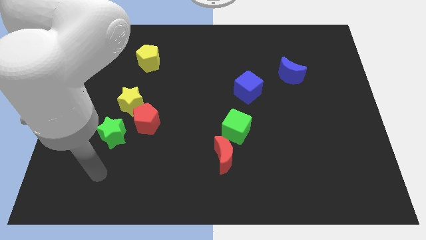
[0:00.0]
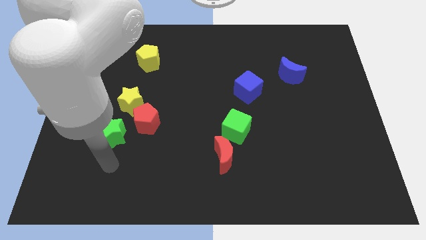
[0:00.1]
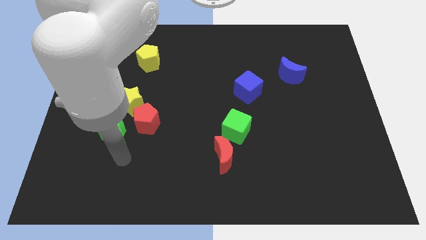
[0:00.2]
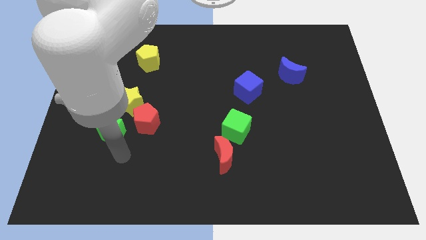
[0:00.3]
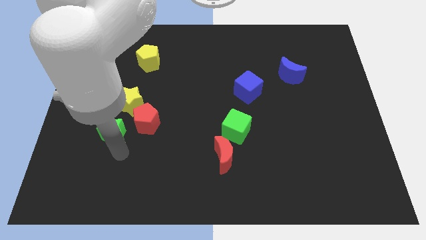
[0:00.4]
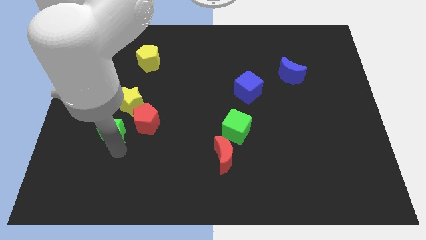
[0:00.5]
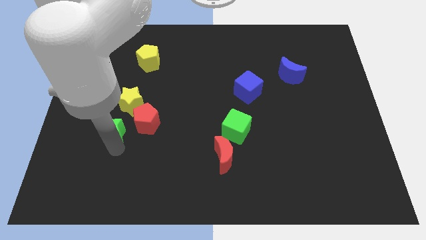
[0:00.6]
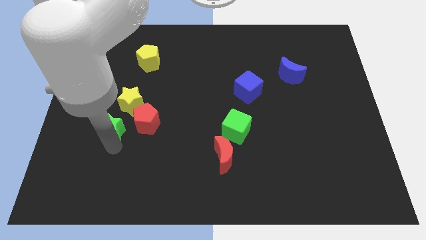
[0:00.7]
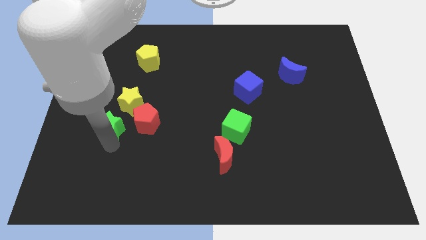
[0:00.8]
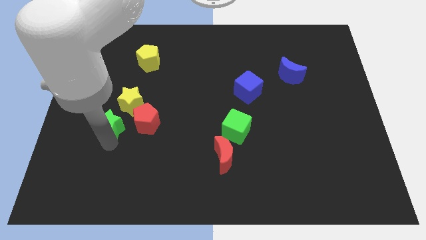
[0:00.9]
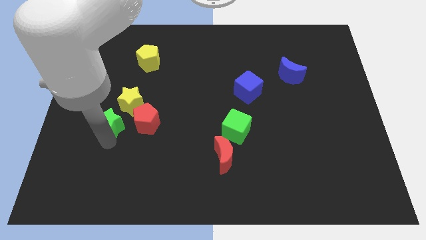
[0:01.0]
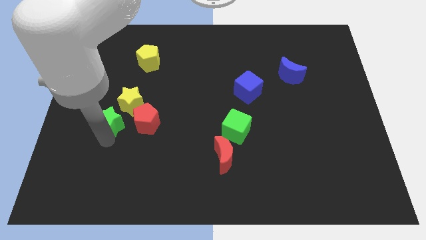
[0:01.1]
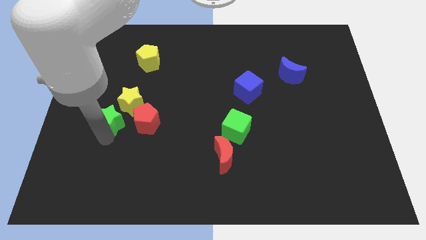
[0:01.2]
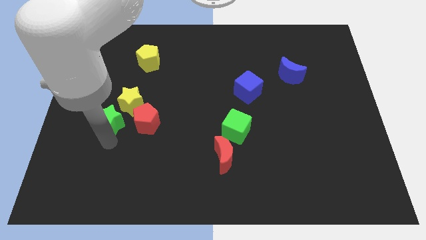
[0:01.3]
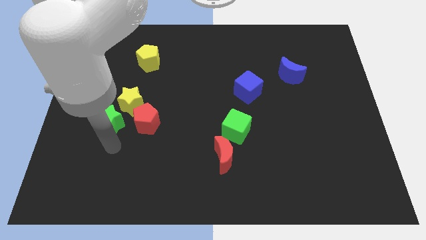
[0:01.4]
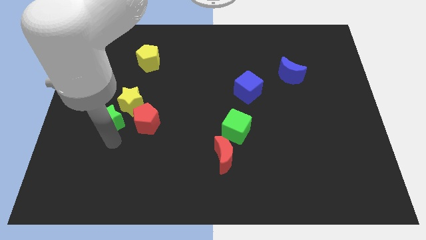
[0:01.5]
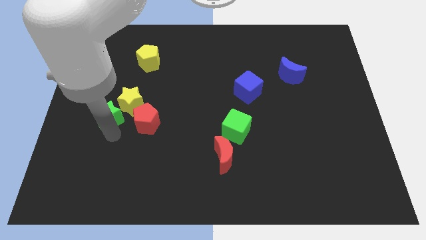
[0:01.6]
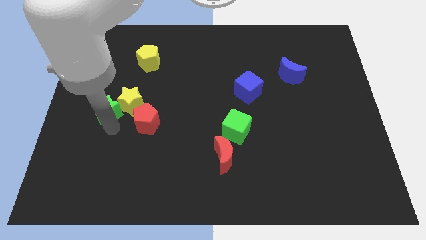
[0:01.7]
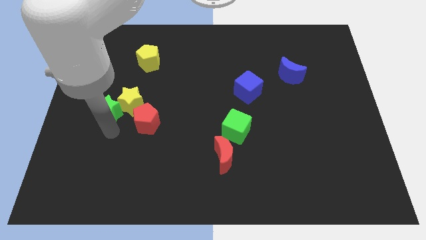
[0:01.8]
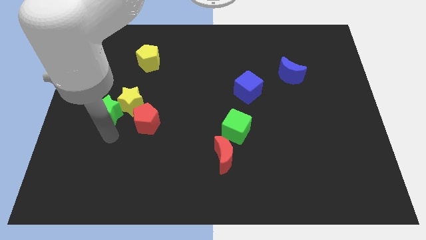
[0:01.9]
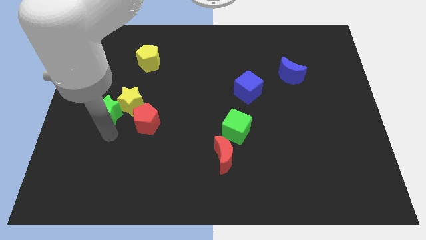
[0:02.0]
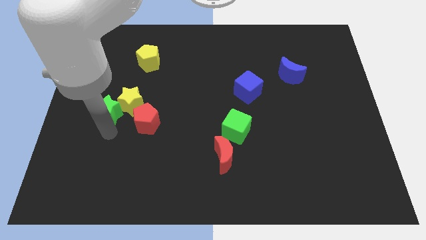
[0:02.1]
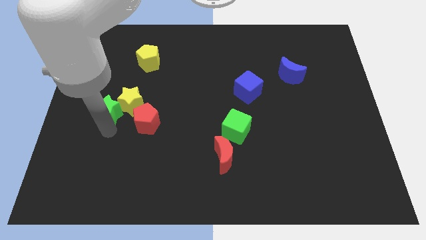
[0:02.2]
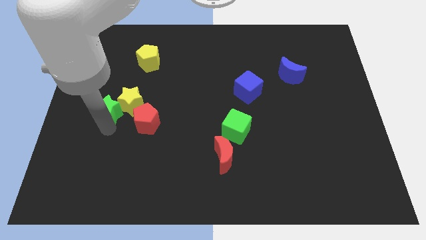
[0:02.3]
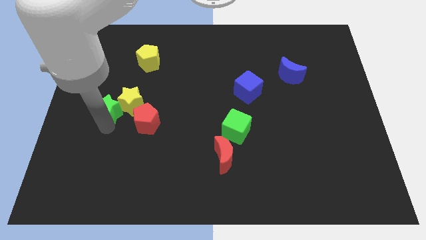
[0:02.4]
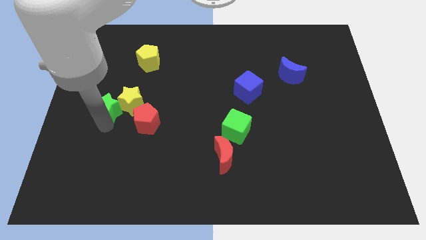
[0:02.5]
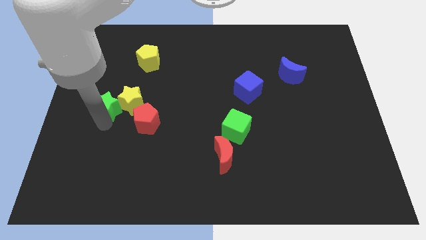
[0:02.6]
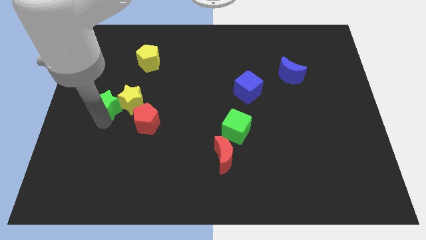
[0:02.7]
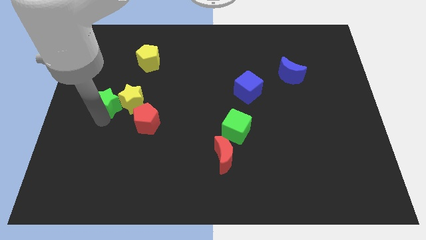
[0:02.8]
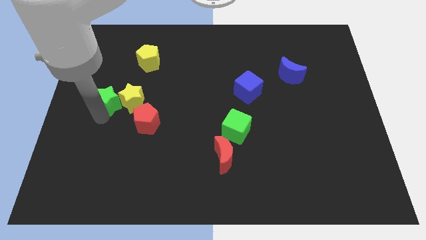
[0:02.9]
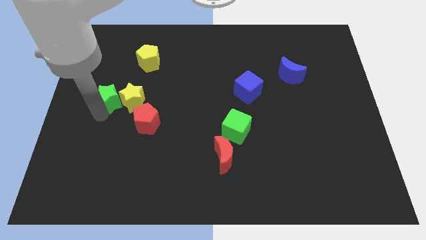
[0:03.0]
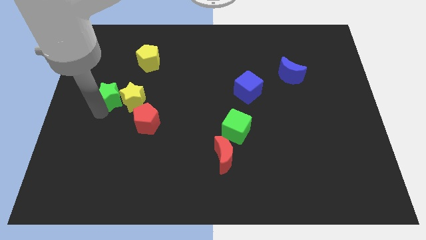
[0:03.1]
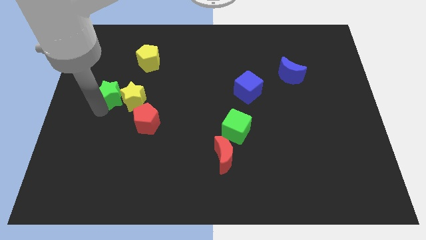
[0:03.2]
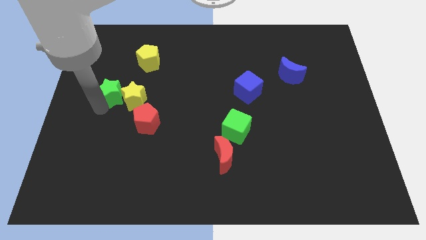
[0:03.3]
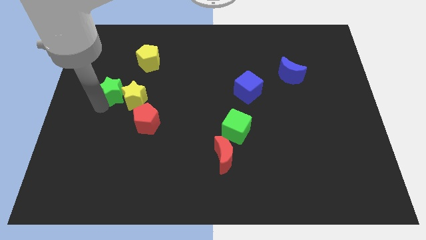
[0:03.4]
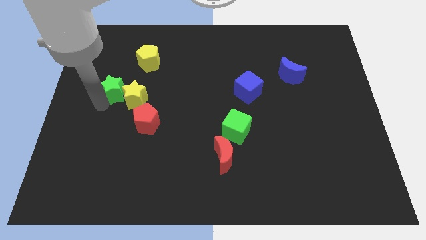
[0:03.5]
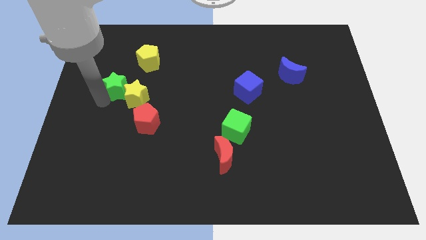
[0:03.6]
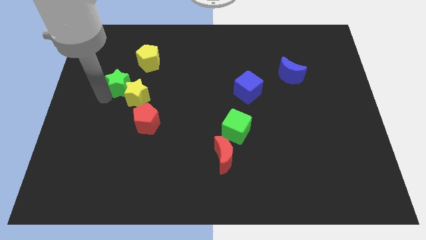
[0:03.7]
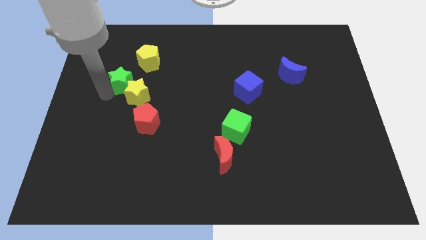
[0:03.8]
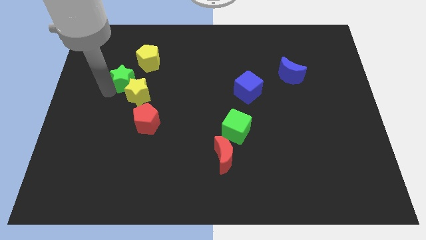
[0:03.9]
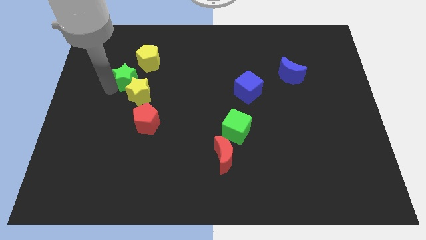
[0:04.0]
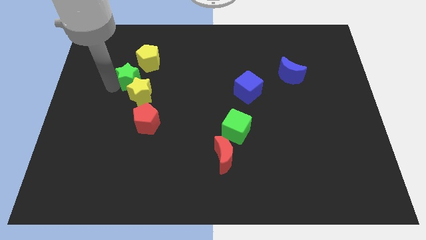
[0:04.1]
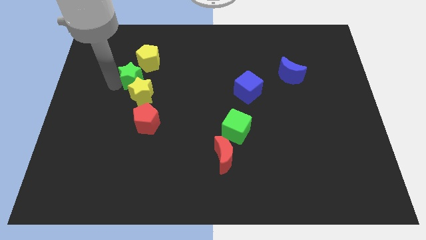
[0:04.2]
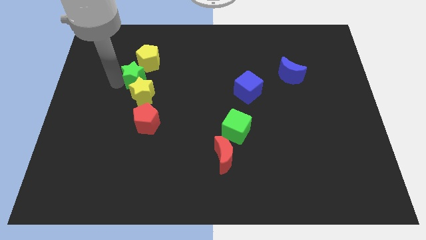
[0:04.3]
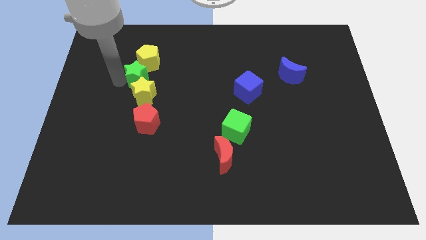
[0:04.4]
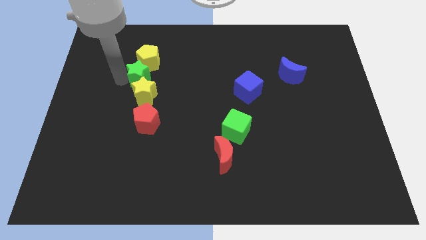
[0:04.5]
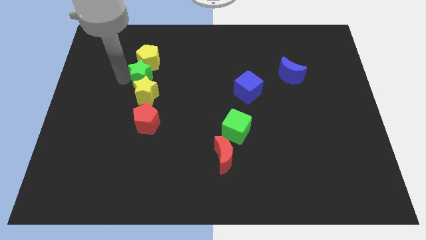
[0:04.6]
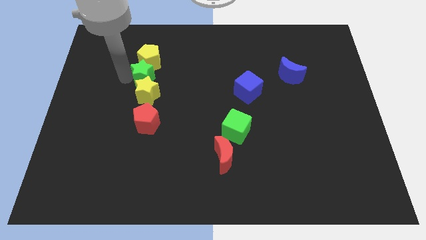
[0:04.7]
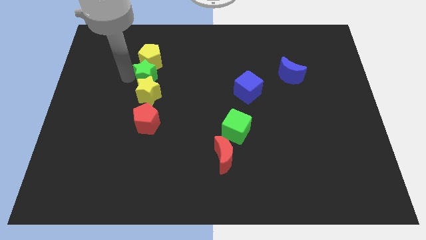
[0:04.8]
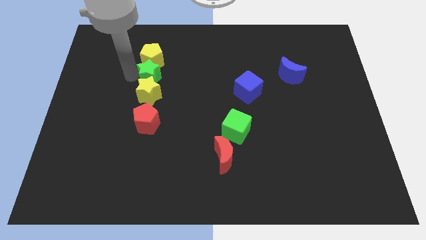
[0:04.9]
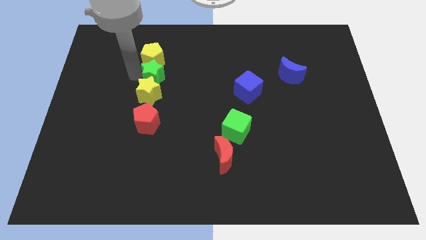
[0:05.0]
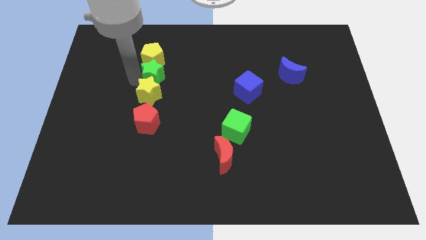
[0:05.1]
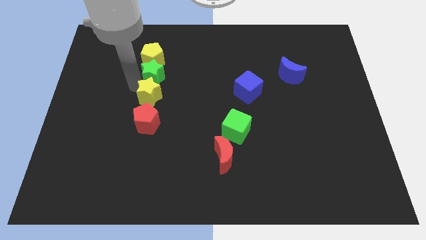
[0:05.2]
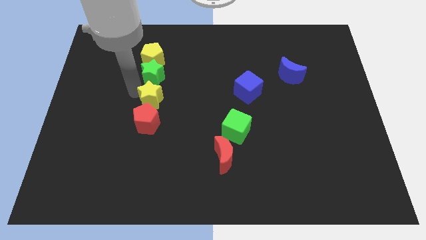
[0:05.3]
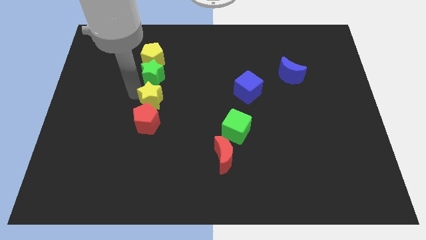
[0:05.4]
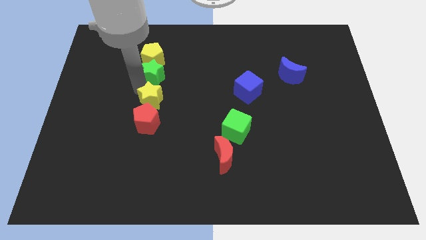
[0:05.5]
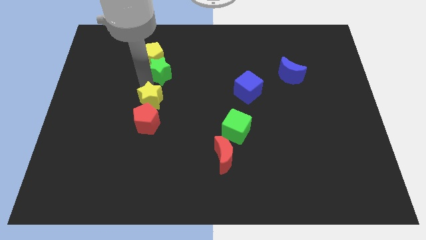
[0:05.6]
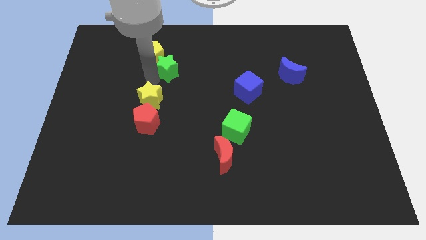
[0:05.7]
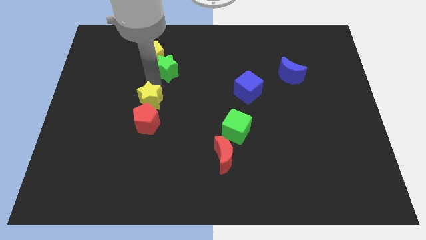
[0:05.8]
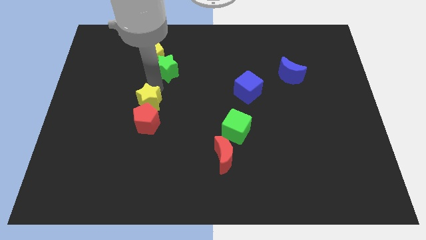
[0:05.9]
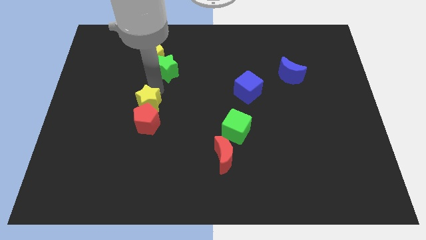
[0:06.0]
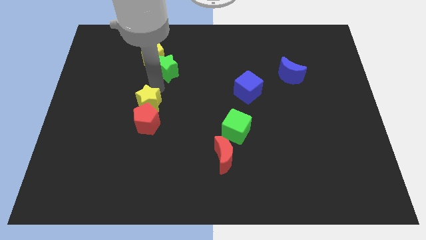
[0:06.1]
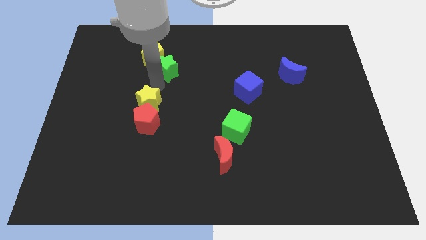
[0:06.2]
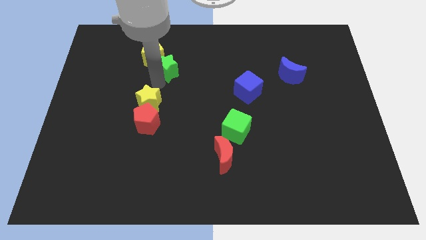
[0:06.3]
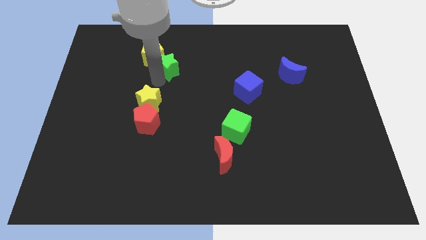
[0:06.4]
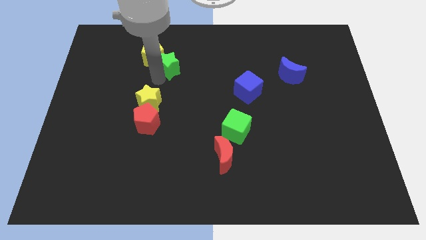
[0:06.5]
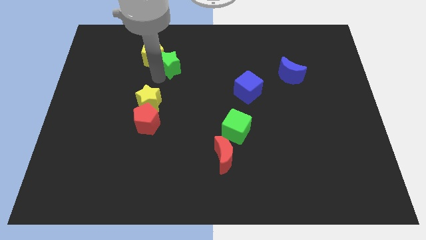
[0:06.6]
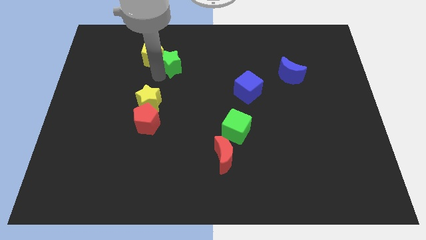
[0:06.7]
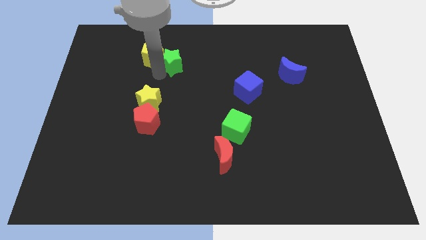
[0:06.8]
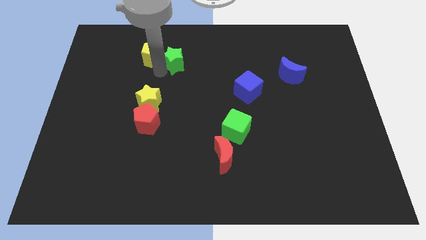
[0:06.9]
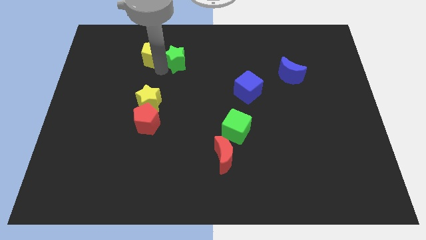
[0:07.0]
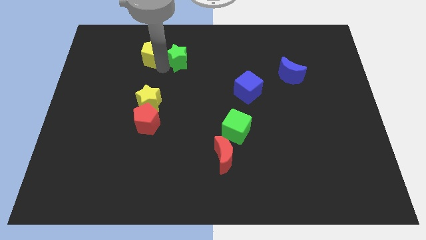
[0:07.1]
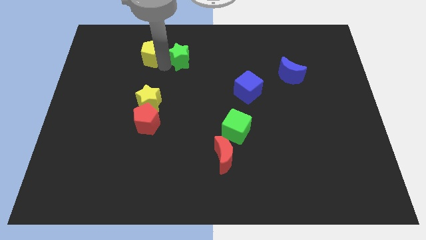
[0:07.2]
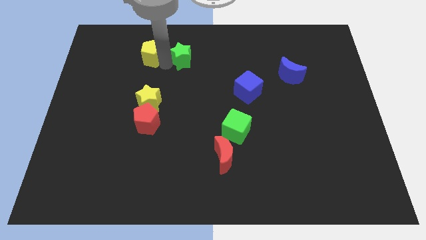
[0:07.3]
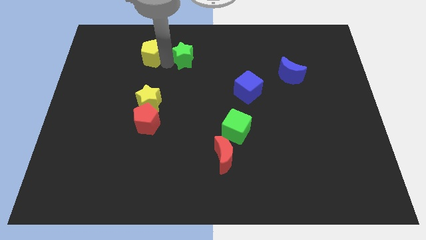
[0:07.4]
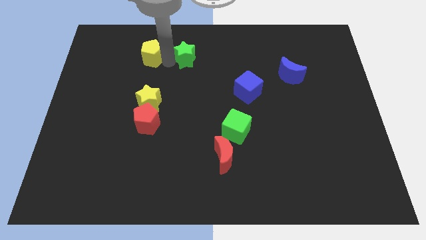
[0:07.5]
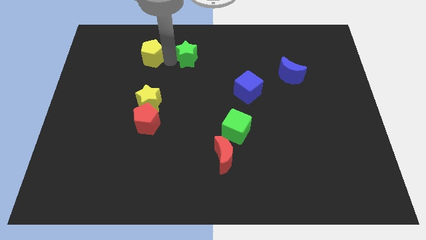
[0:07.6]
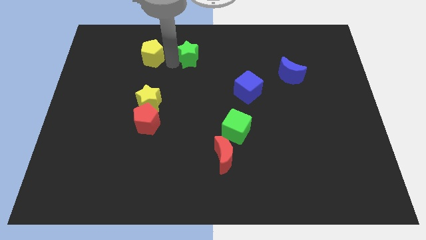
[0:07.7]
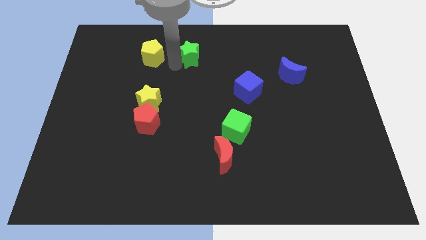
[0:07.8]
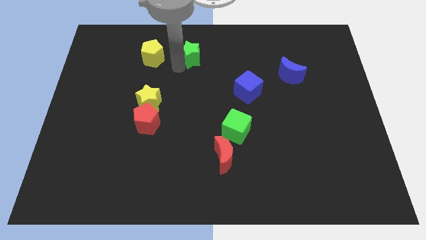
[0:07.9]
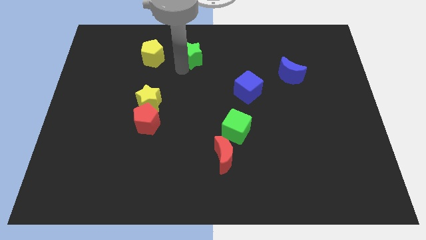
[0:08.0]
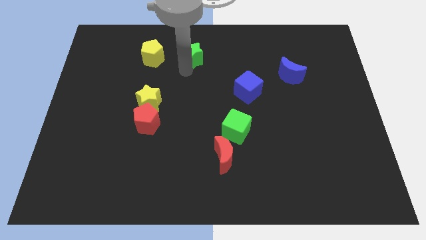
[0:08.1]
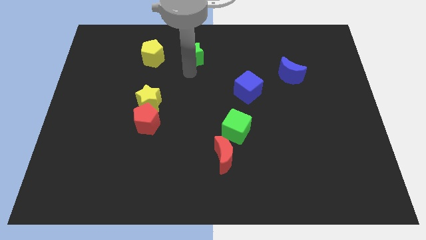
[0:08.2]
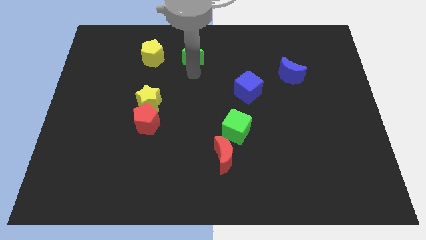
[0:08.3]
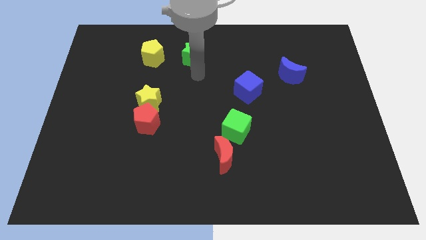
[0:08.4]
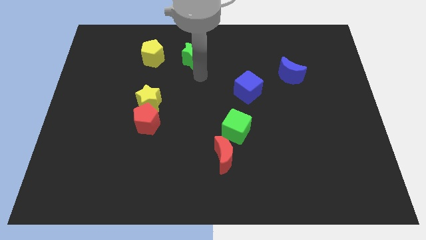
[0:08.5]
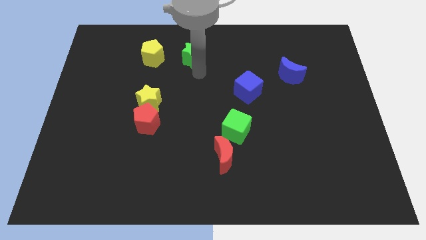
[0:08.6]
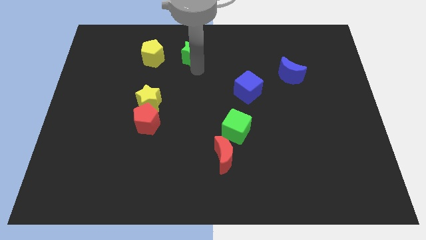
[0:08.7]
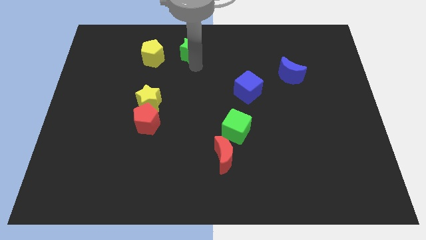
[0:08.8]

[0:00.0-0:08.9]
move the green star to the towards your base
